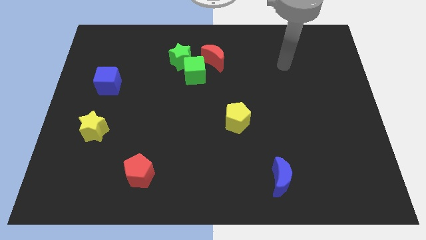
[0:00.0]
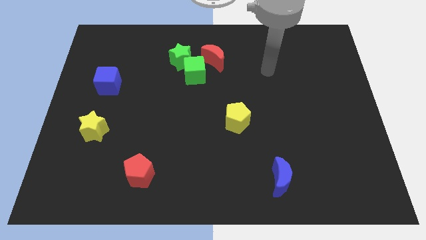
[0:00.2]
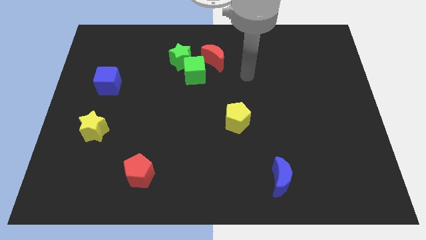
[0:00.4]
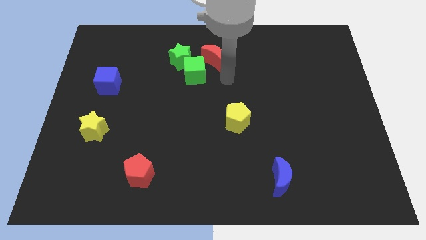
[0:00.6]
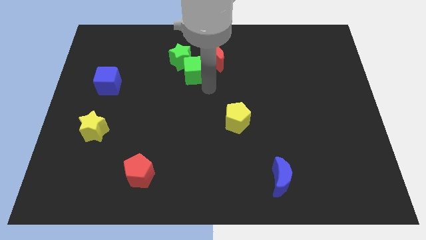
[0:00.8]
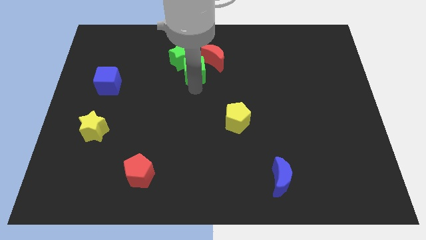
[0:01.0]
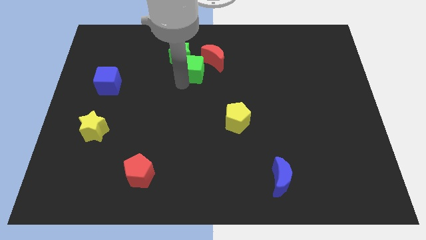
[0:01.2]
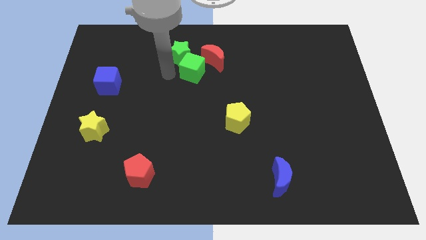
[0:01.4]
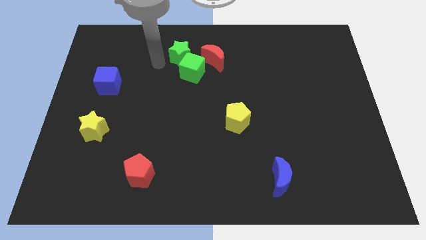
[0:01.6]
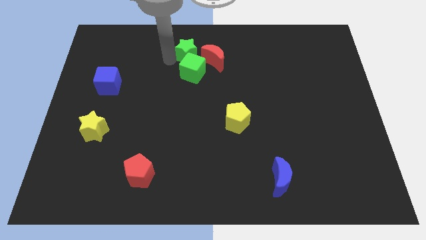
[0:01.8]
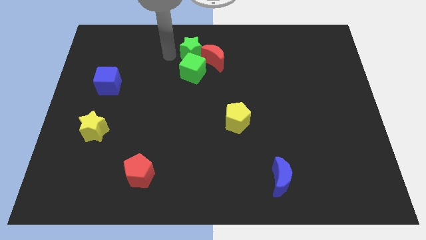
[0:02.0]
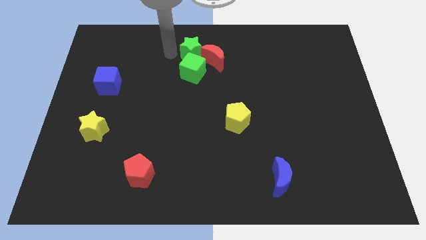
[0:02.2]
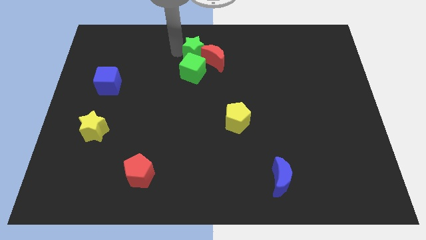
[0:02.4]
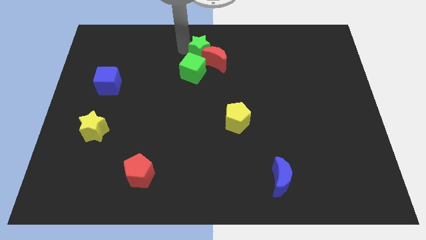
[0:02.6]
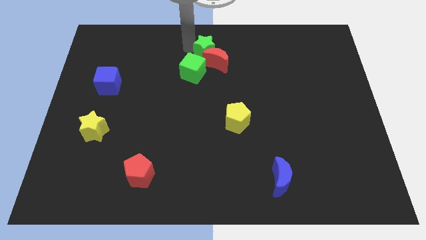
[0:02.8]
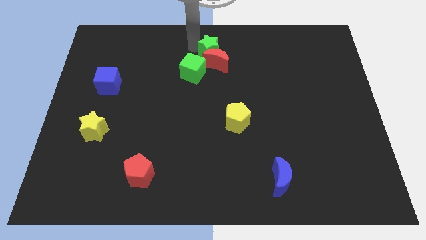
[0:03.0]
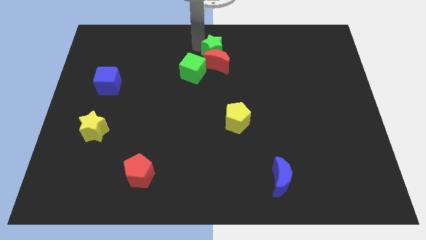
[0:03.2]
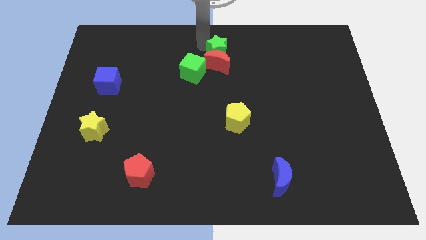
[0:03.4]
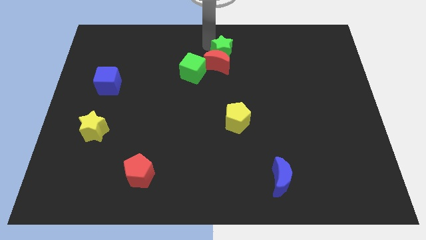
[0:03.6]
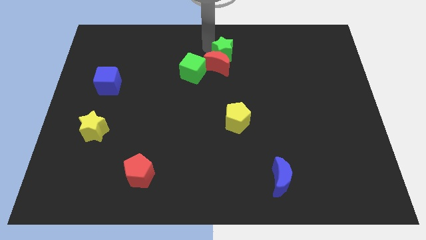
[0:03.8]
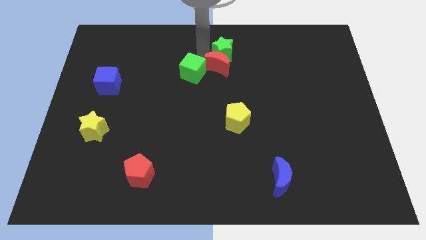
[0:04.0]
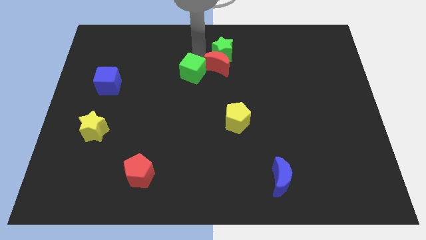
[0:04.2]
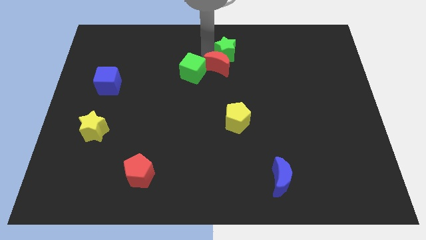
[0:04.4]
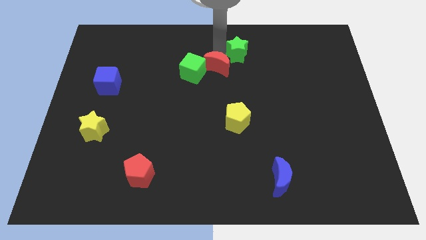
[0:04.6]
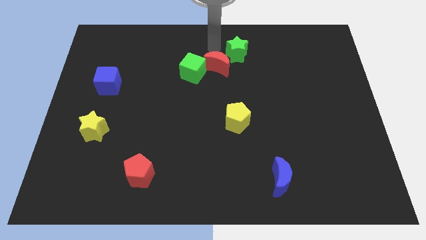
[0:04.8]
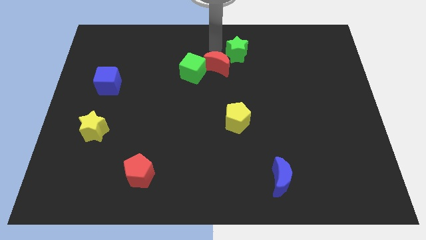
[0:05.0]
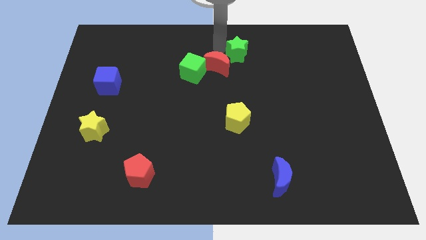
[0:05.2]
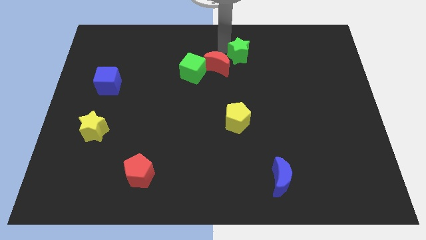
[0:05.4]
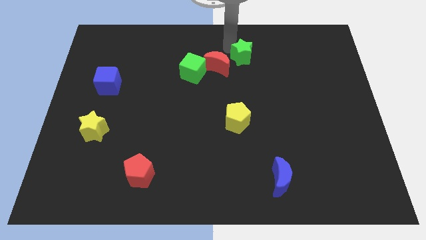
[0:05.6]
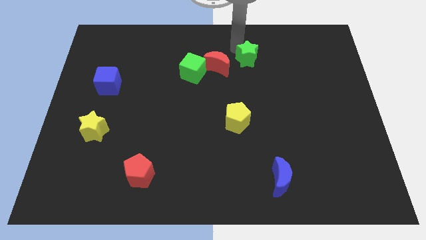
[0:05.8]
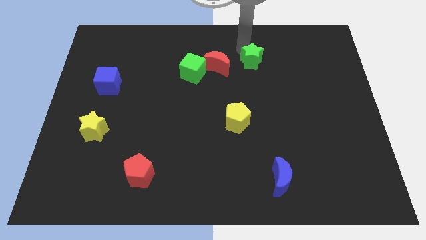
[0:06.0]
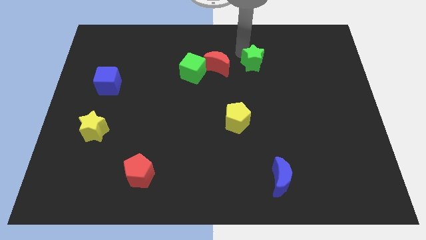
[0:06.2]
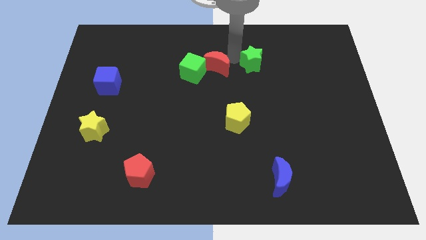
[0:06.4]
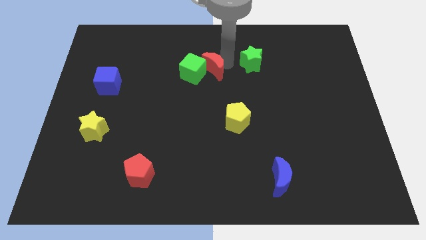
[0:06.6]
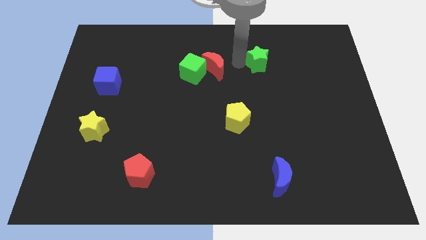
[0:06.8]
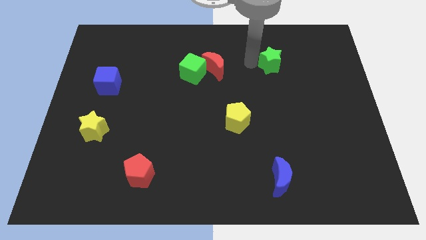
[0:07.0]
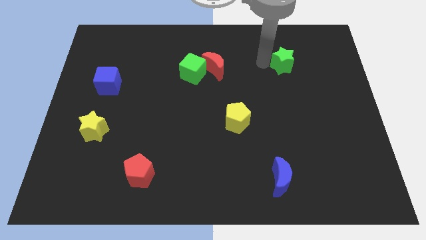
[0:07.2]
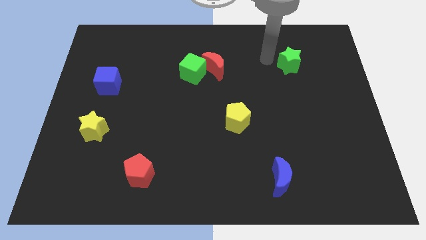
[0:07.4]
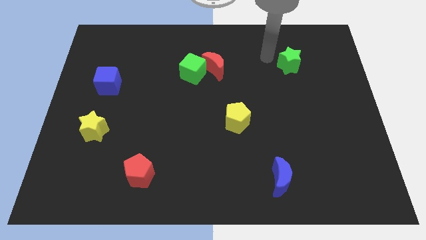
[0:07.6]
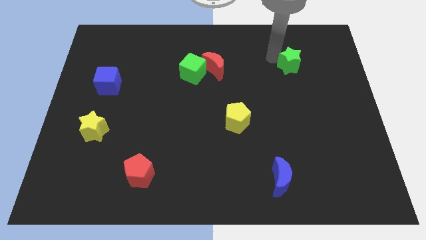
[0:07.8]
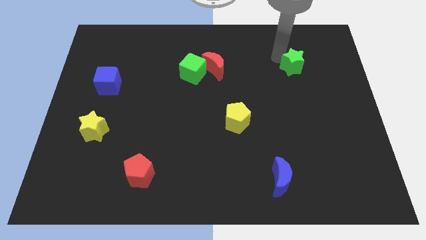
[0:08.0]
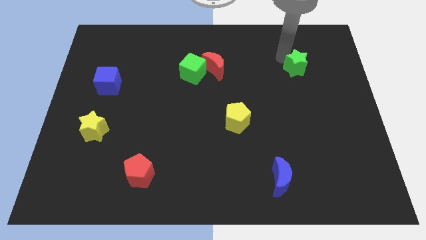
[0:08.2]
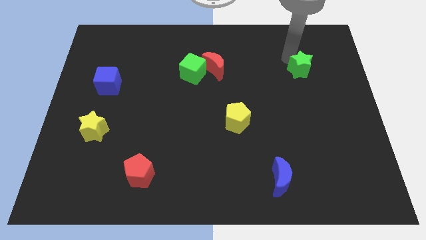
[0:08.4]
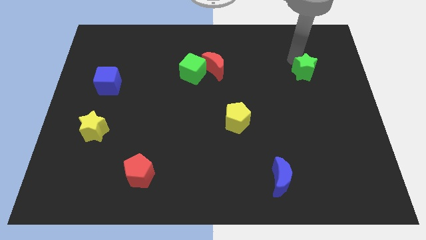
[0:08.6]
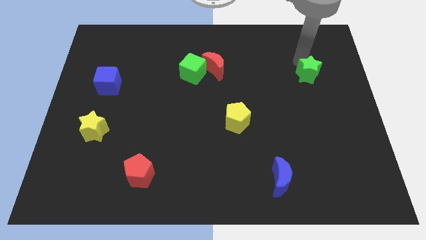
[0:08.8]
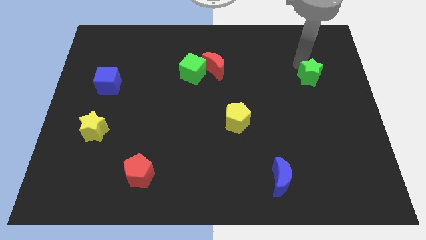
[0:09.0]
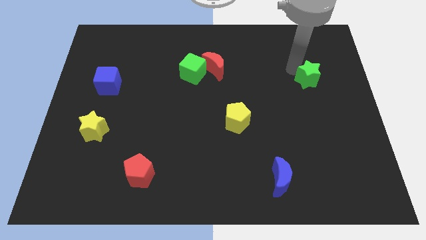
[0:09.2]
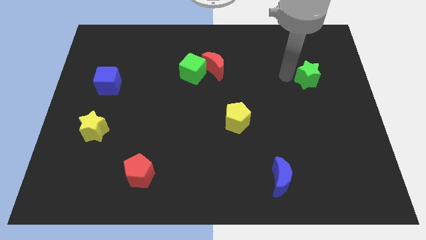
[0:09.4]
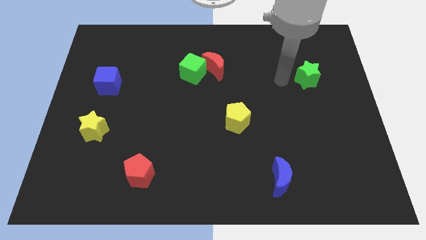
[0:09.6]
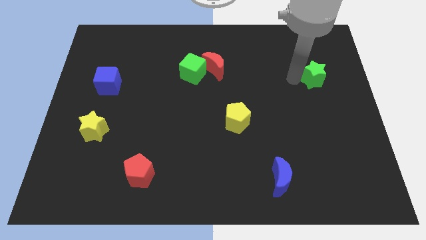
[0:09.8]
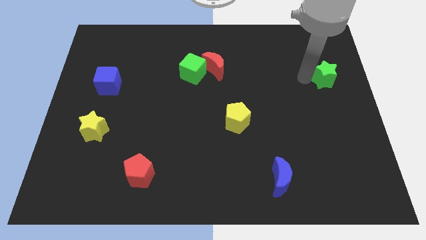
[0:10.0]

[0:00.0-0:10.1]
push the green star to the right side of the board

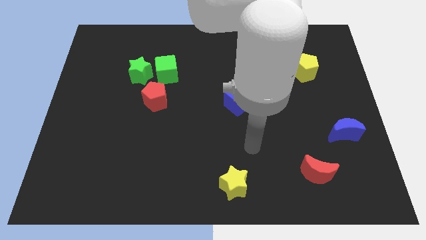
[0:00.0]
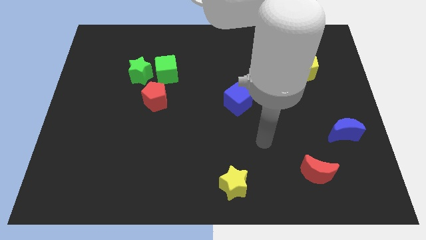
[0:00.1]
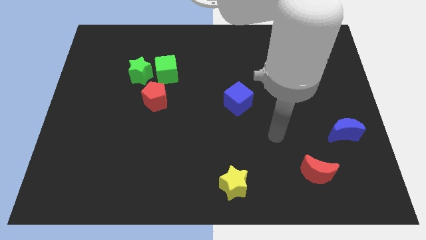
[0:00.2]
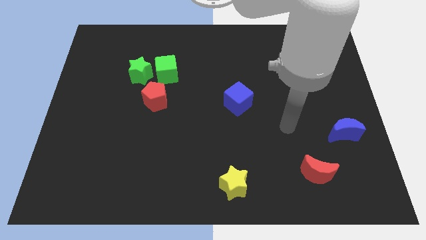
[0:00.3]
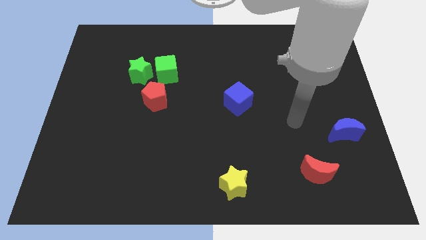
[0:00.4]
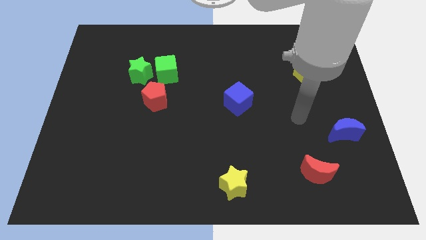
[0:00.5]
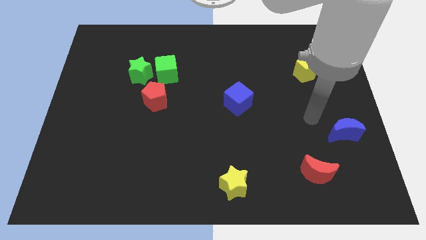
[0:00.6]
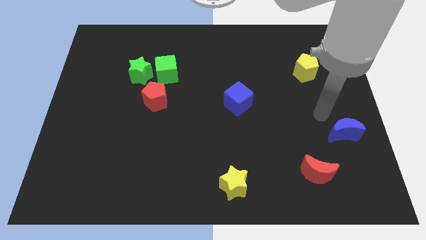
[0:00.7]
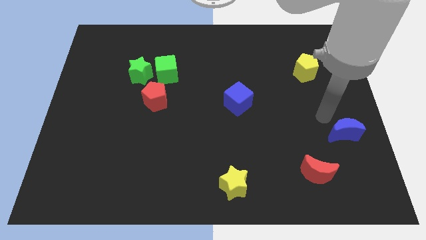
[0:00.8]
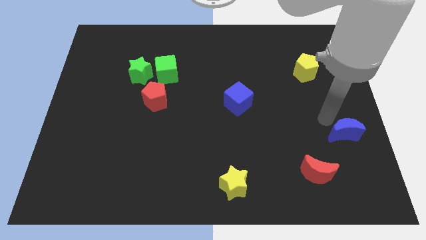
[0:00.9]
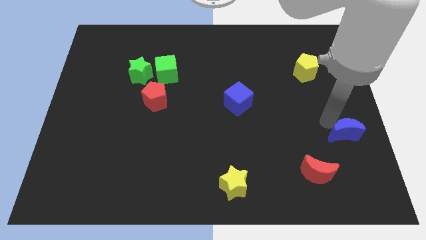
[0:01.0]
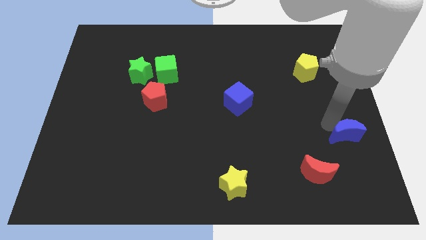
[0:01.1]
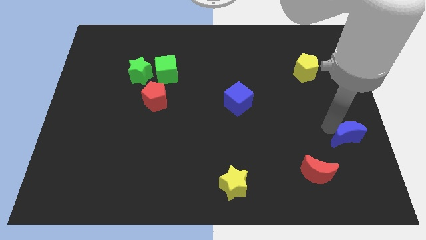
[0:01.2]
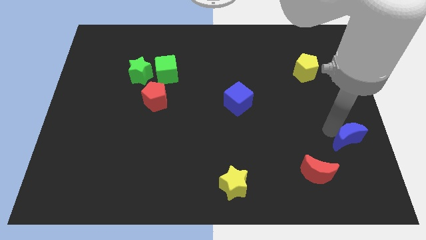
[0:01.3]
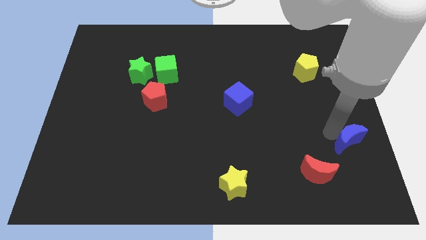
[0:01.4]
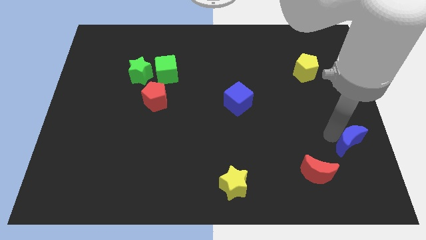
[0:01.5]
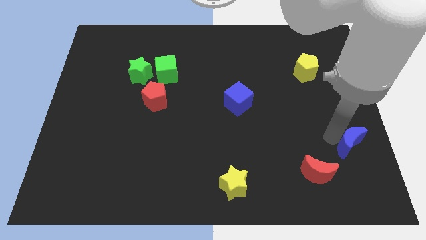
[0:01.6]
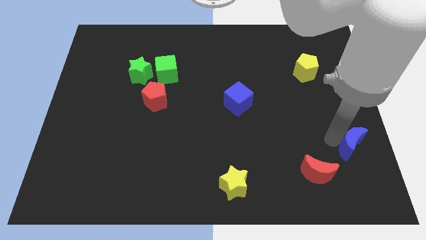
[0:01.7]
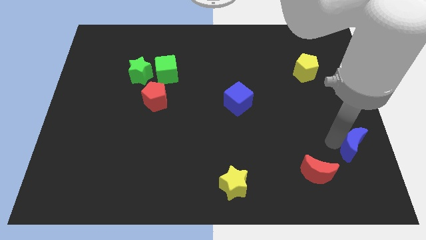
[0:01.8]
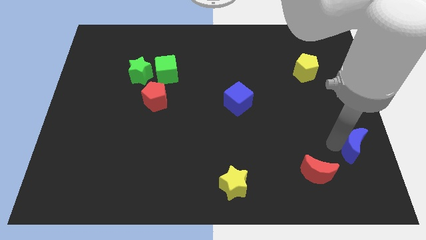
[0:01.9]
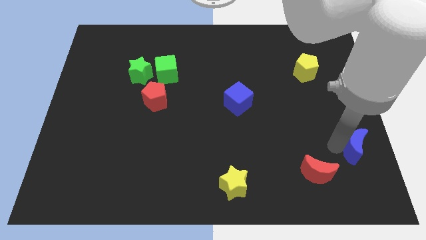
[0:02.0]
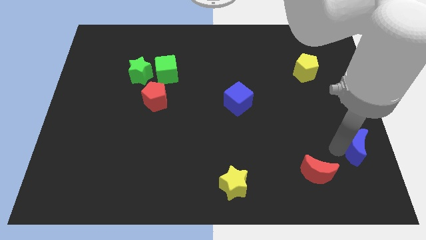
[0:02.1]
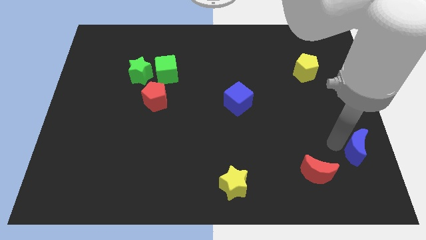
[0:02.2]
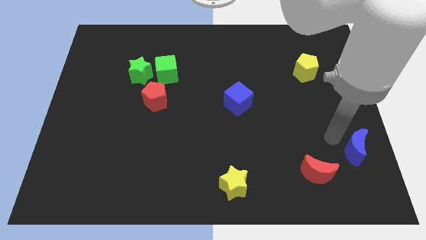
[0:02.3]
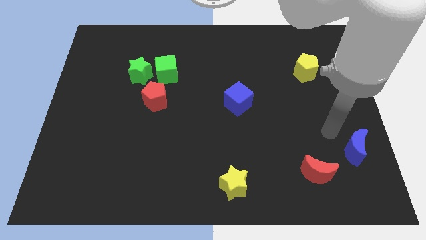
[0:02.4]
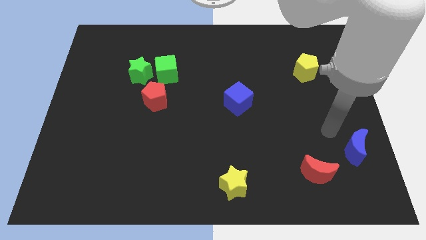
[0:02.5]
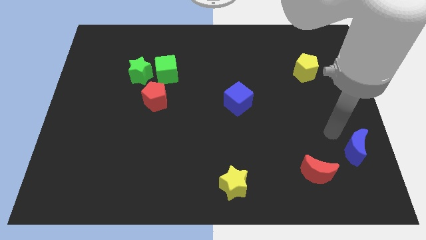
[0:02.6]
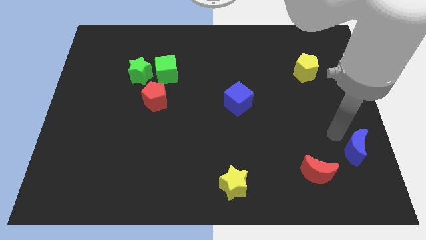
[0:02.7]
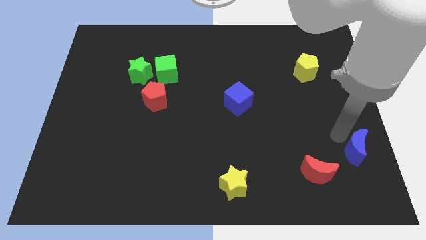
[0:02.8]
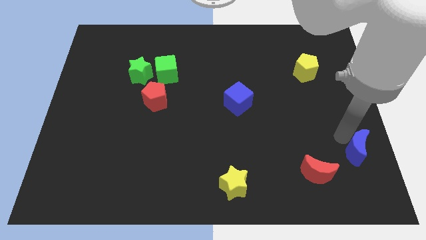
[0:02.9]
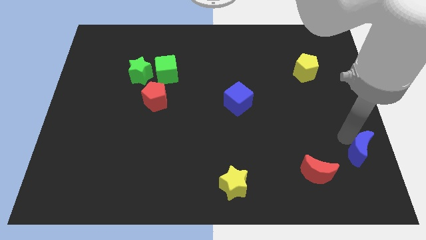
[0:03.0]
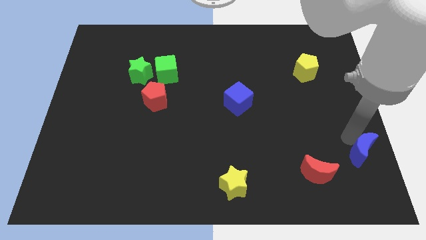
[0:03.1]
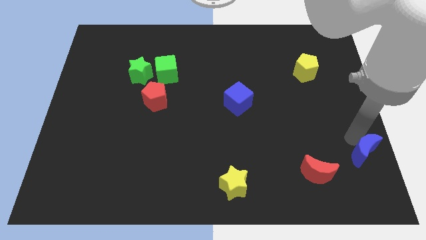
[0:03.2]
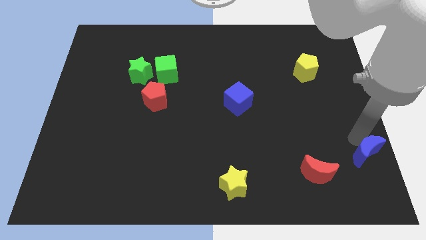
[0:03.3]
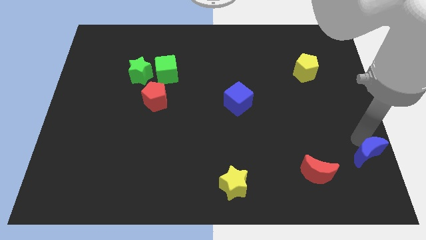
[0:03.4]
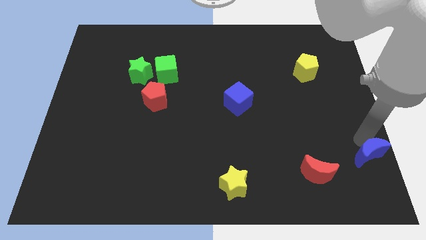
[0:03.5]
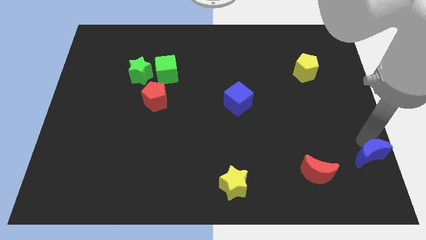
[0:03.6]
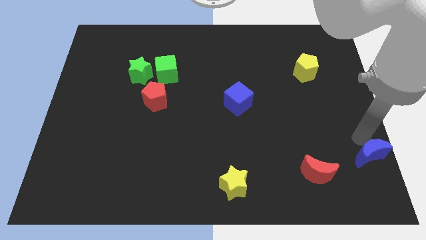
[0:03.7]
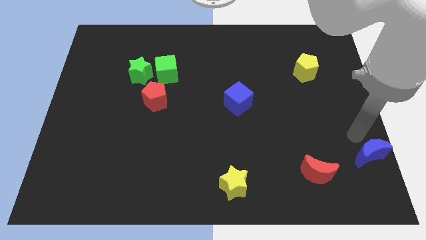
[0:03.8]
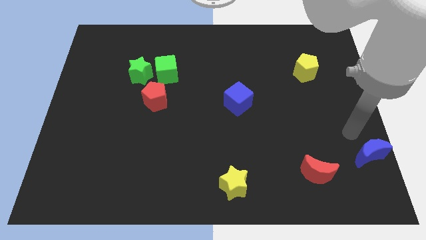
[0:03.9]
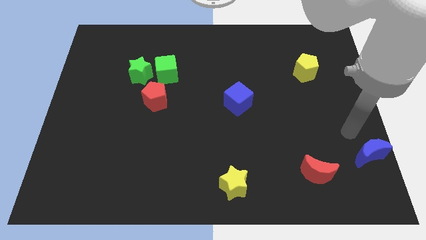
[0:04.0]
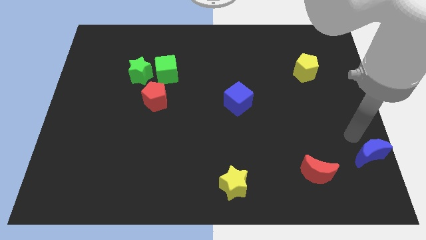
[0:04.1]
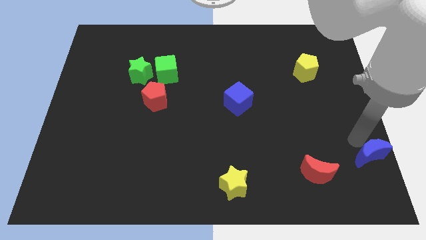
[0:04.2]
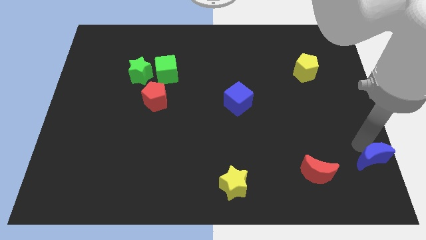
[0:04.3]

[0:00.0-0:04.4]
push the blue moon to the bottom right corner
